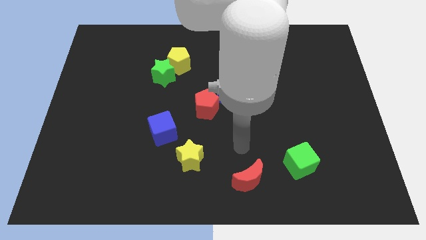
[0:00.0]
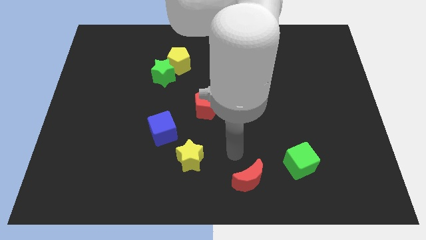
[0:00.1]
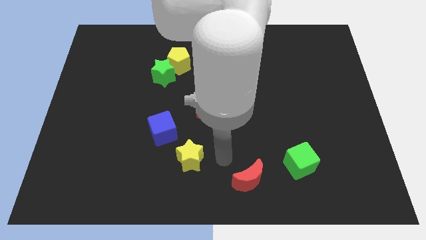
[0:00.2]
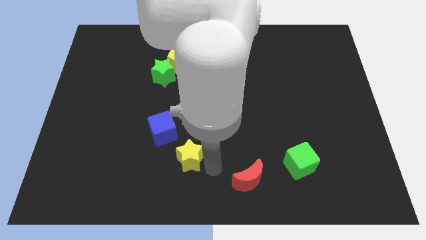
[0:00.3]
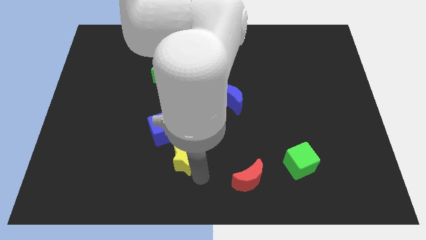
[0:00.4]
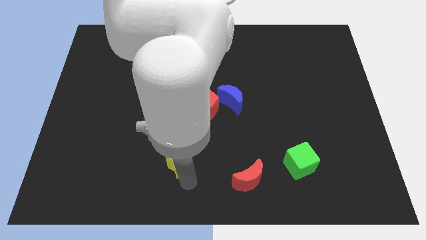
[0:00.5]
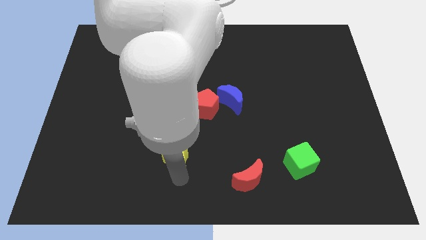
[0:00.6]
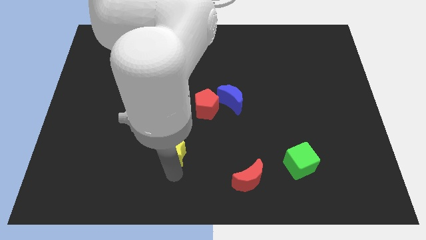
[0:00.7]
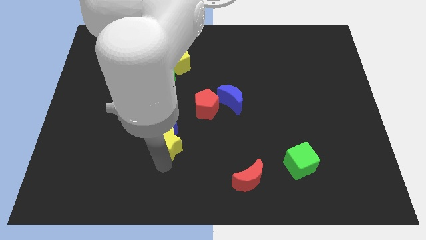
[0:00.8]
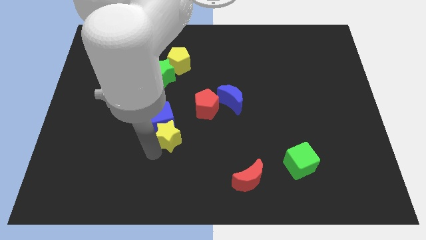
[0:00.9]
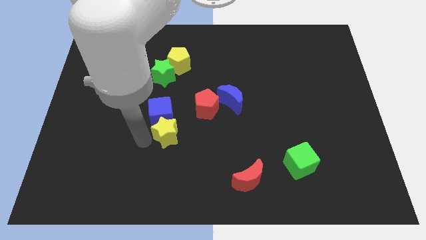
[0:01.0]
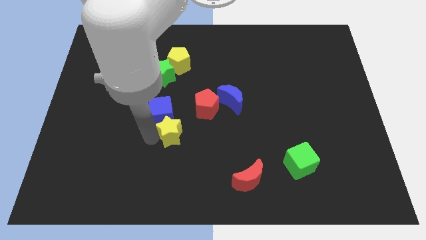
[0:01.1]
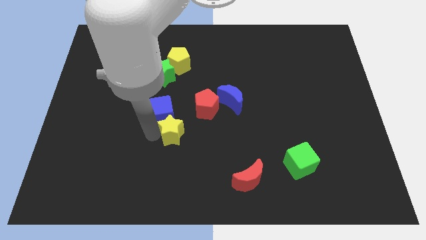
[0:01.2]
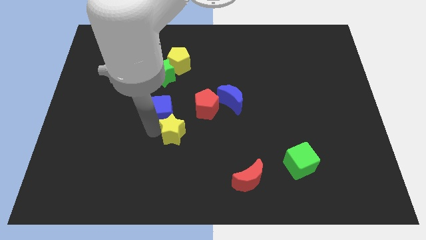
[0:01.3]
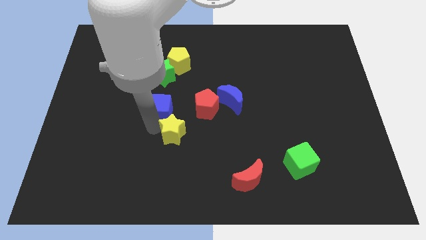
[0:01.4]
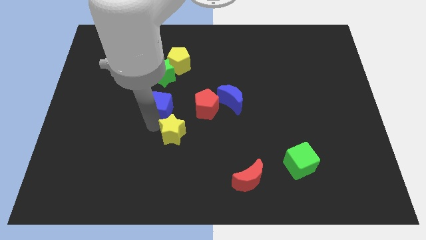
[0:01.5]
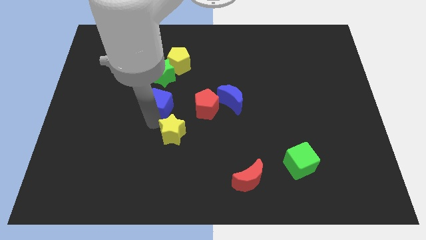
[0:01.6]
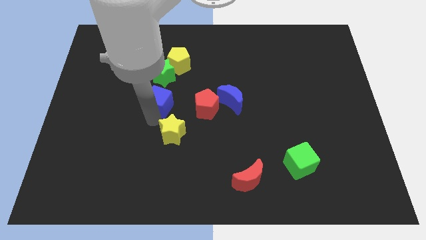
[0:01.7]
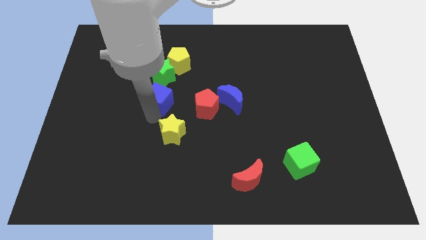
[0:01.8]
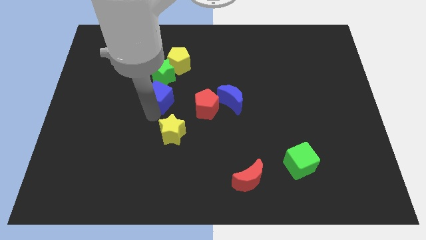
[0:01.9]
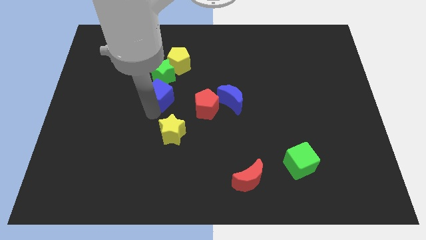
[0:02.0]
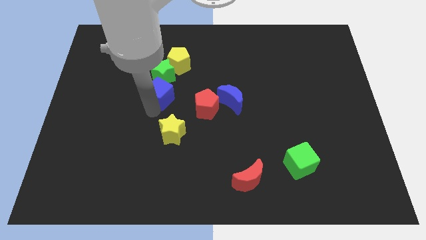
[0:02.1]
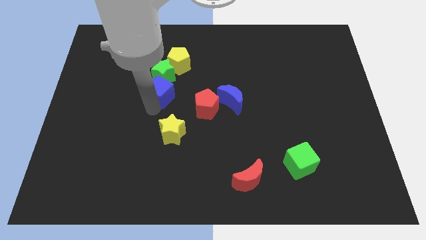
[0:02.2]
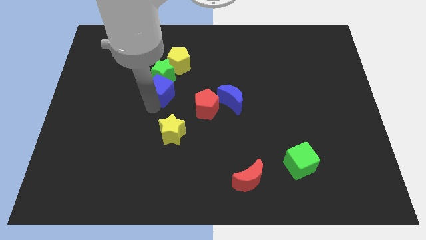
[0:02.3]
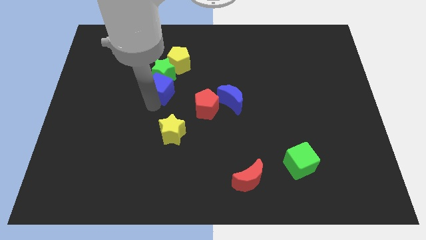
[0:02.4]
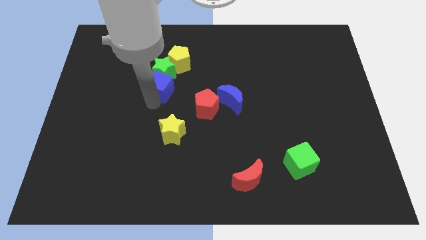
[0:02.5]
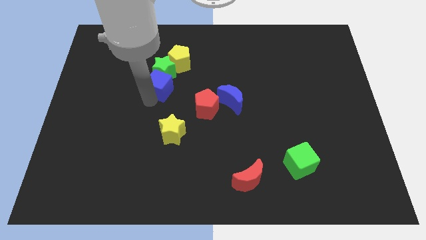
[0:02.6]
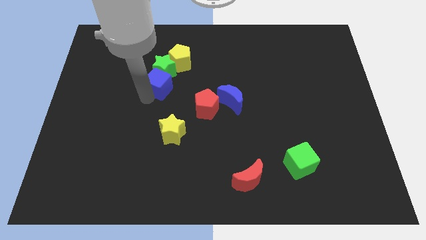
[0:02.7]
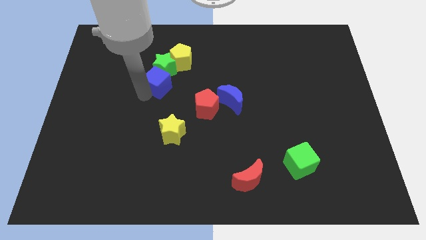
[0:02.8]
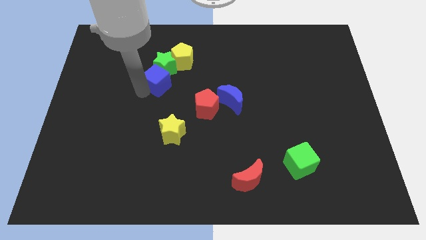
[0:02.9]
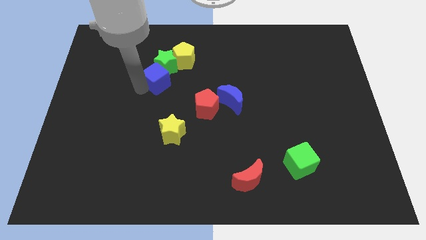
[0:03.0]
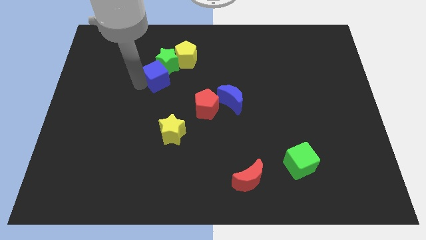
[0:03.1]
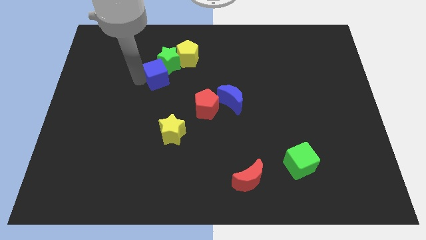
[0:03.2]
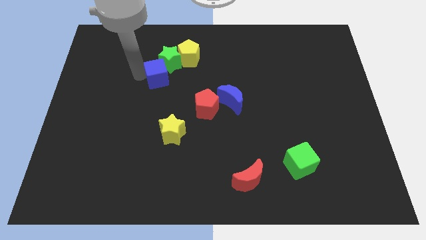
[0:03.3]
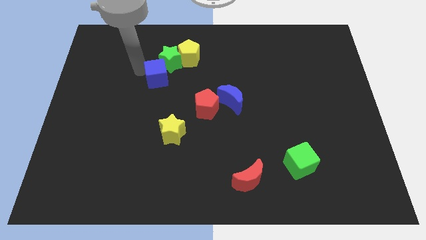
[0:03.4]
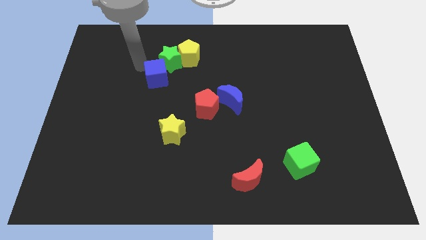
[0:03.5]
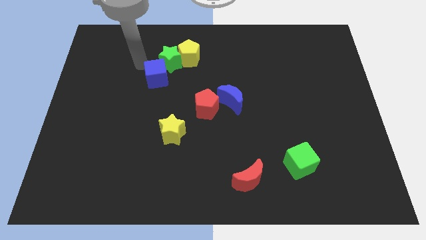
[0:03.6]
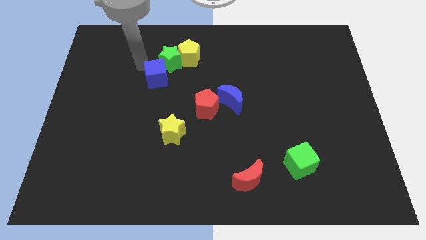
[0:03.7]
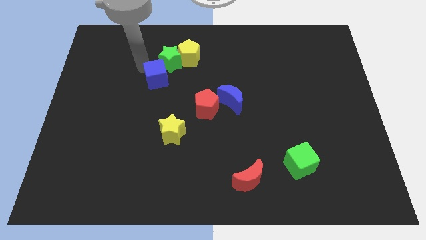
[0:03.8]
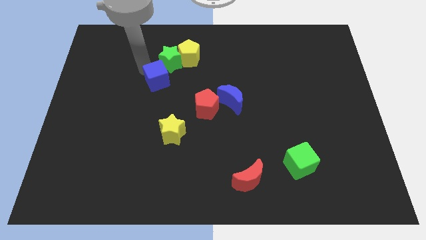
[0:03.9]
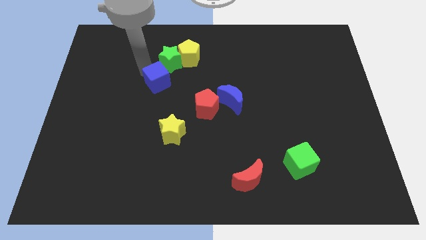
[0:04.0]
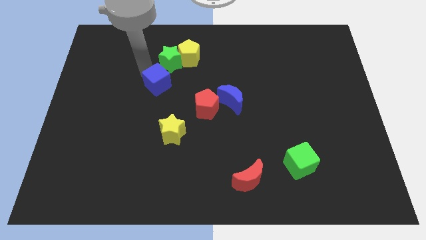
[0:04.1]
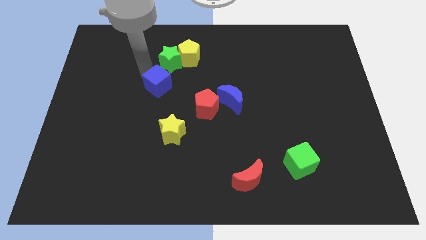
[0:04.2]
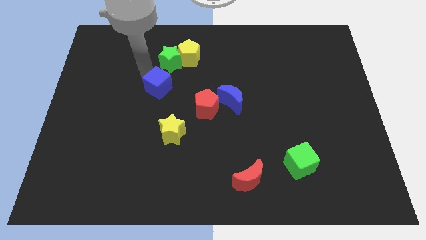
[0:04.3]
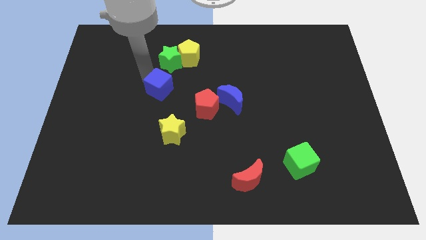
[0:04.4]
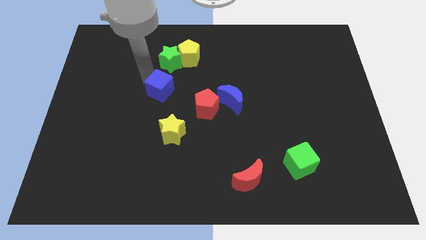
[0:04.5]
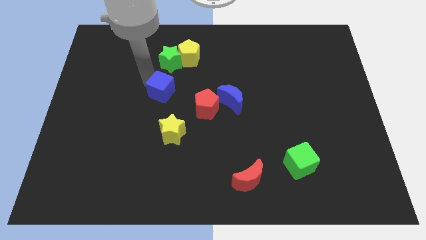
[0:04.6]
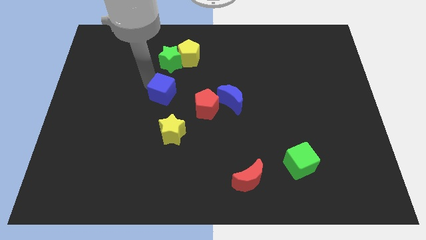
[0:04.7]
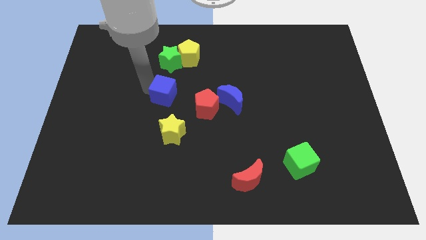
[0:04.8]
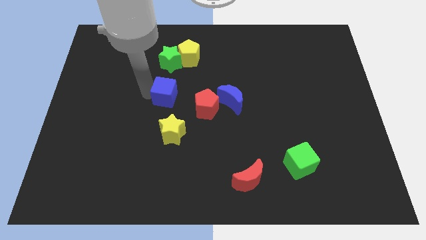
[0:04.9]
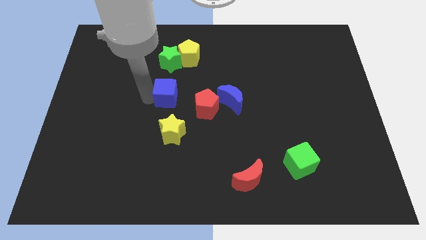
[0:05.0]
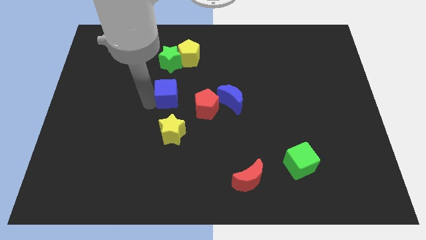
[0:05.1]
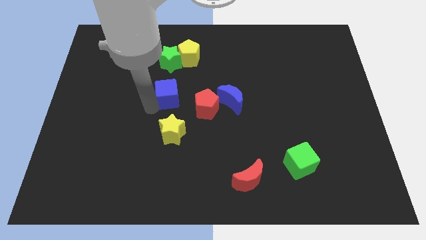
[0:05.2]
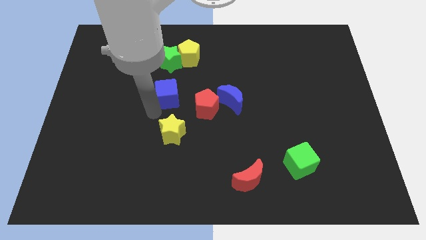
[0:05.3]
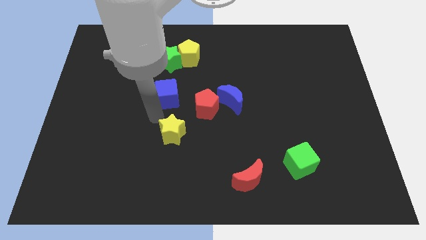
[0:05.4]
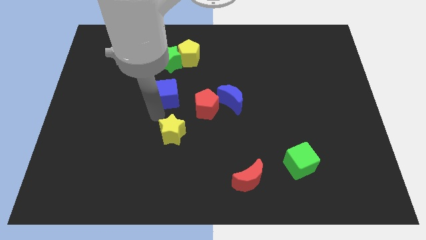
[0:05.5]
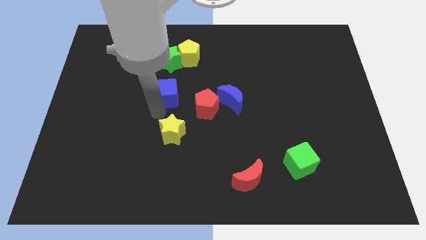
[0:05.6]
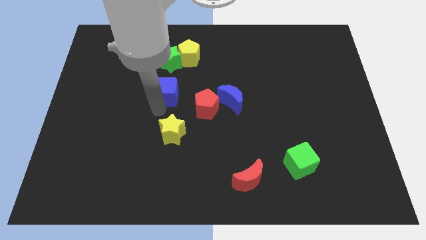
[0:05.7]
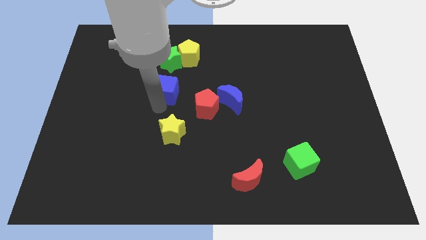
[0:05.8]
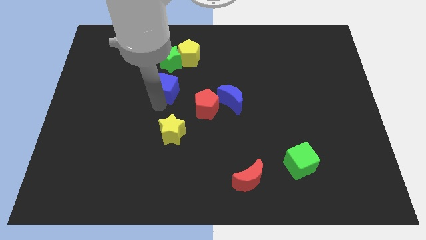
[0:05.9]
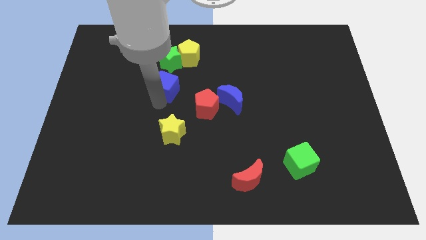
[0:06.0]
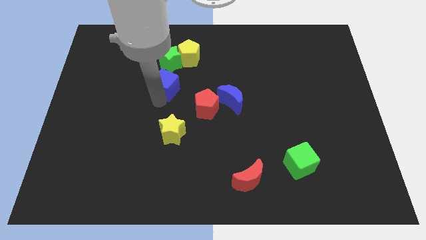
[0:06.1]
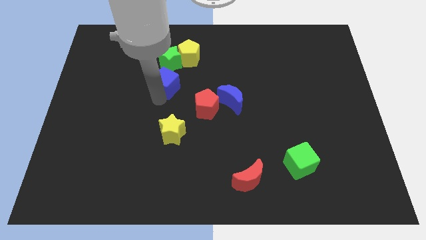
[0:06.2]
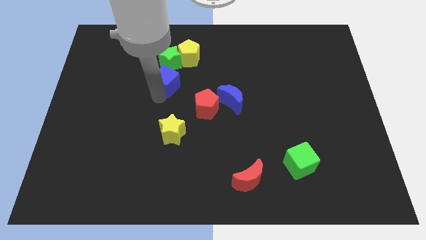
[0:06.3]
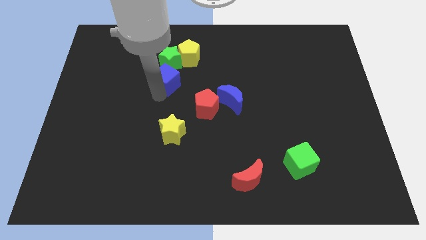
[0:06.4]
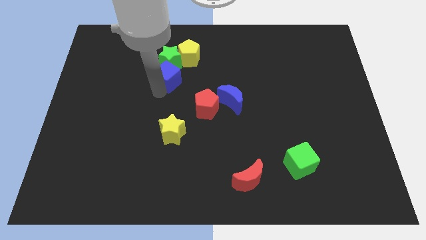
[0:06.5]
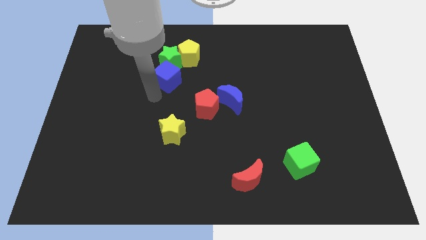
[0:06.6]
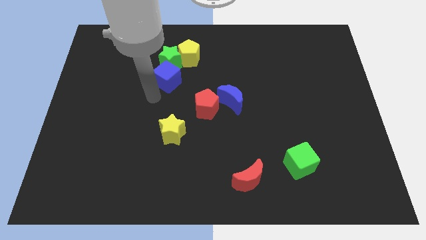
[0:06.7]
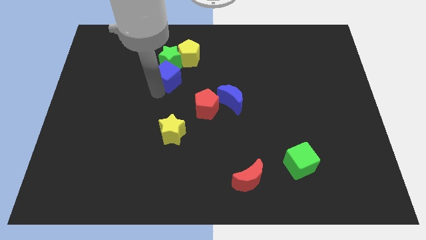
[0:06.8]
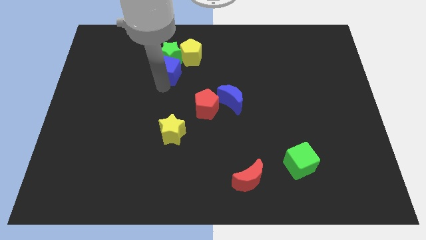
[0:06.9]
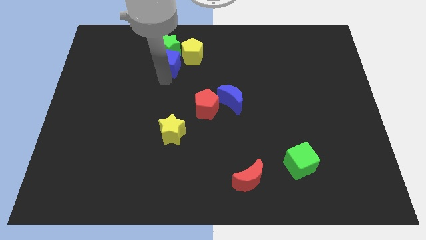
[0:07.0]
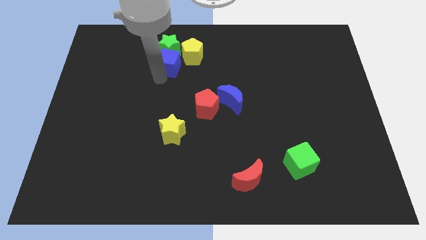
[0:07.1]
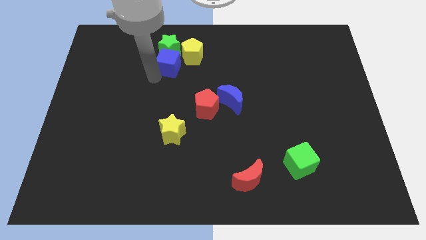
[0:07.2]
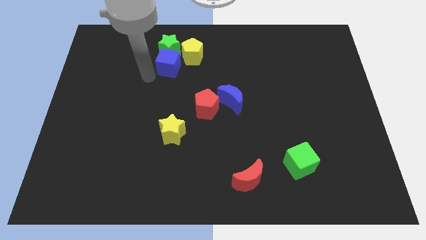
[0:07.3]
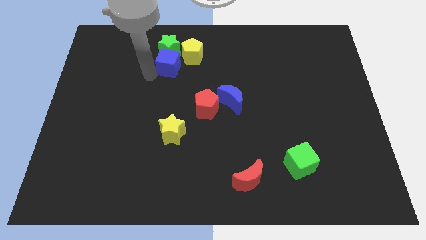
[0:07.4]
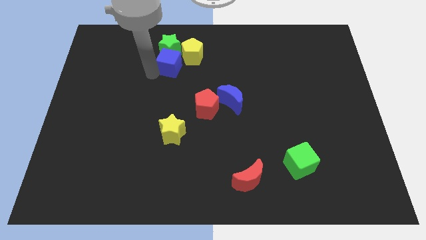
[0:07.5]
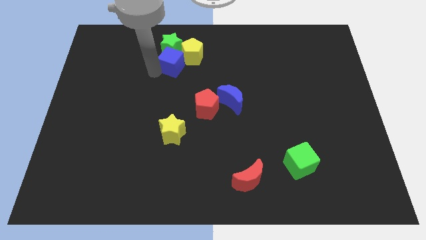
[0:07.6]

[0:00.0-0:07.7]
move the blue cube towards the yellow pentagon
